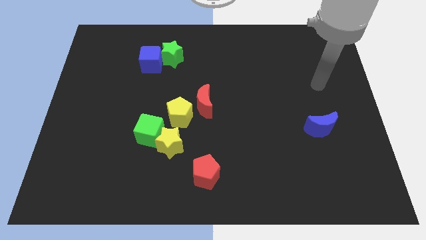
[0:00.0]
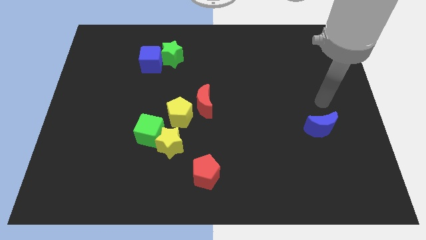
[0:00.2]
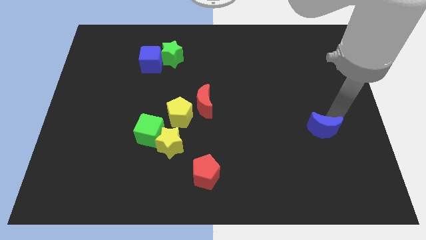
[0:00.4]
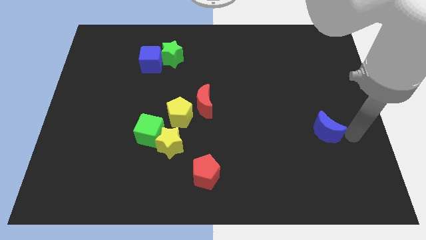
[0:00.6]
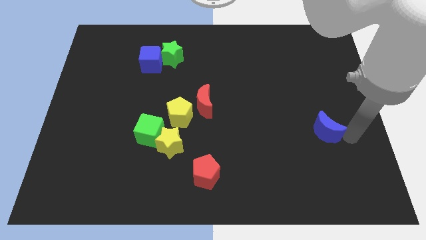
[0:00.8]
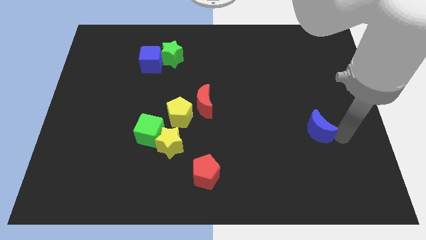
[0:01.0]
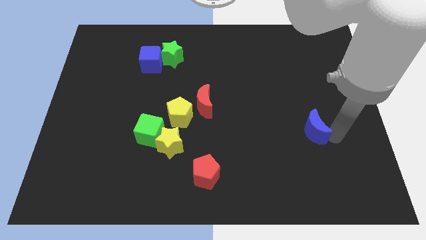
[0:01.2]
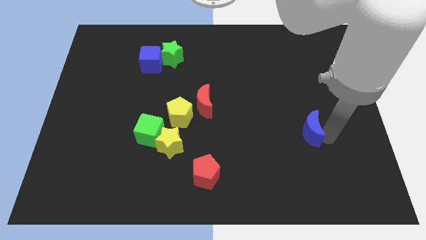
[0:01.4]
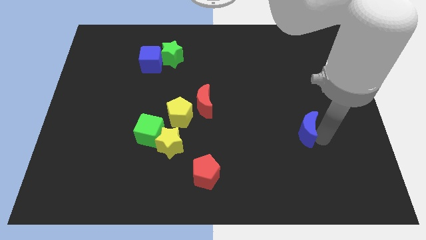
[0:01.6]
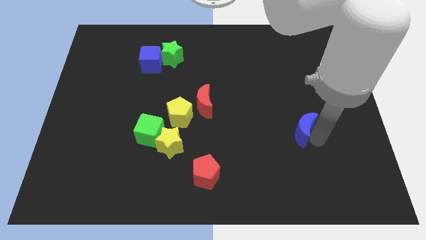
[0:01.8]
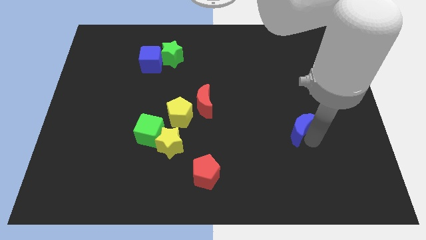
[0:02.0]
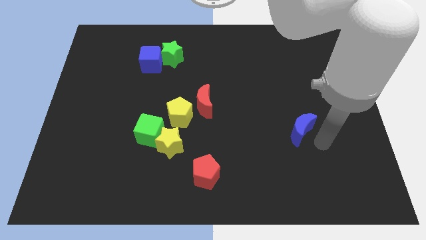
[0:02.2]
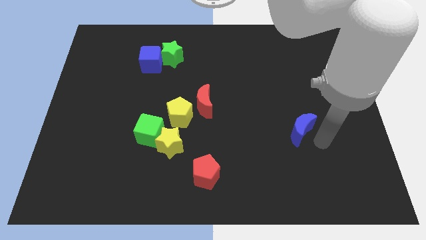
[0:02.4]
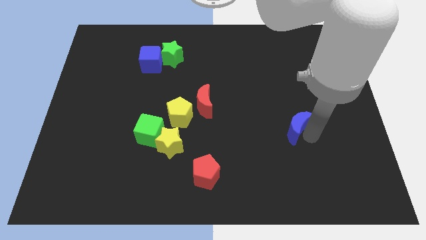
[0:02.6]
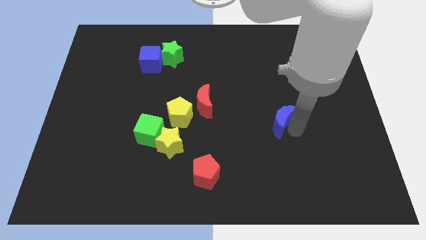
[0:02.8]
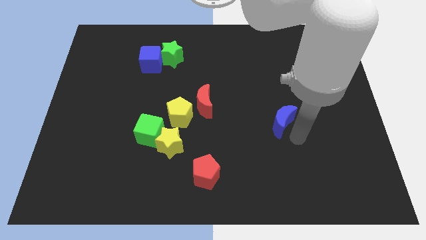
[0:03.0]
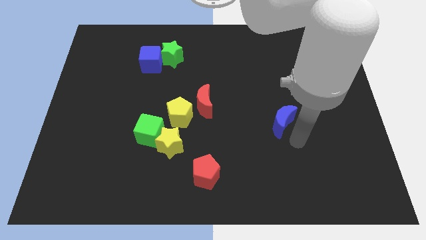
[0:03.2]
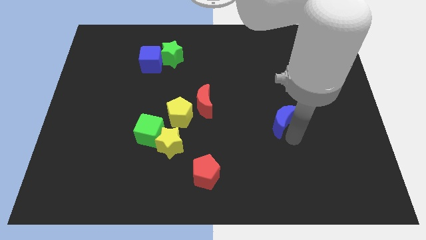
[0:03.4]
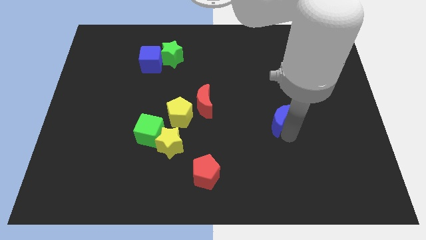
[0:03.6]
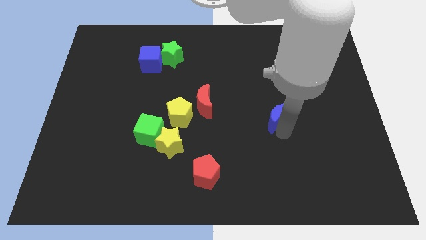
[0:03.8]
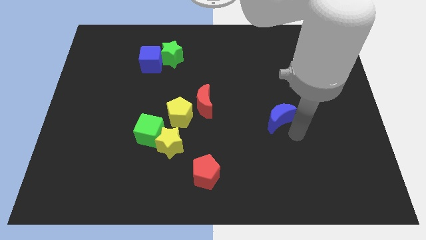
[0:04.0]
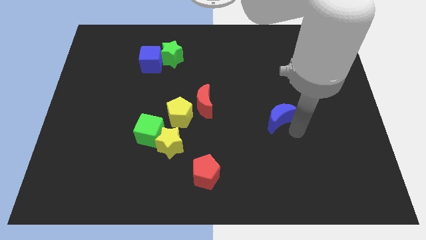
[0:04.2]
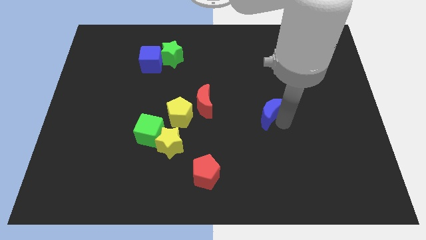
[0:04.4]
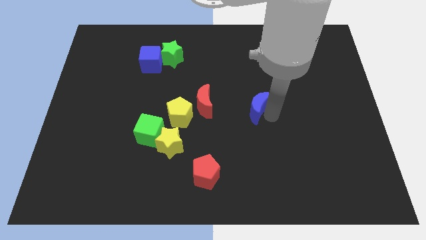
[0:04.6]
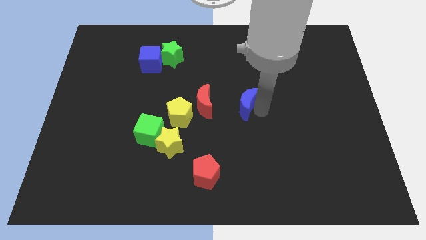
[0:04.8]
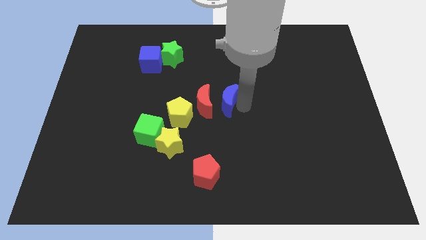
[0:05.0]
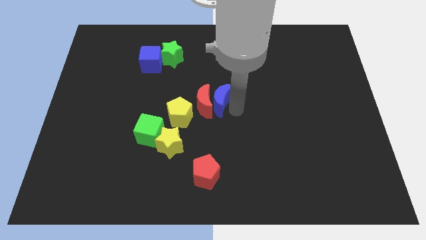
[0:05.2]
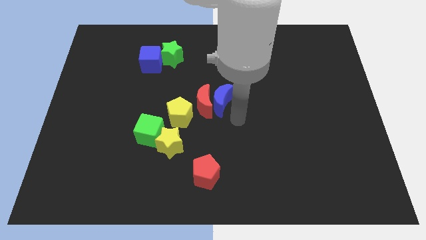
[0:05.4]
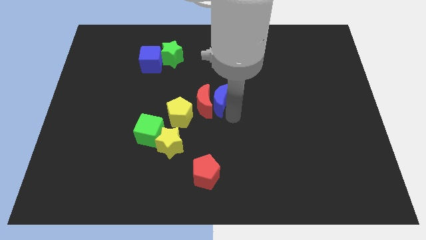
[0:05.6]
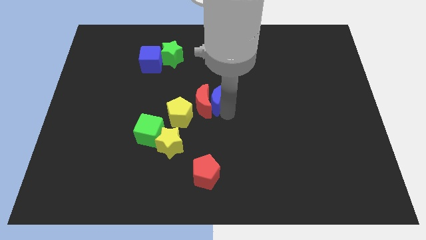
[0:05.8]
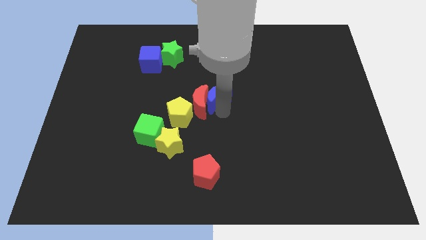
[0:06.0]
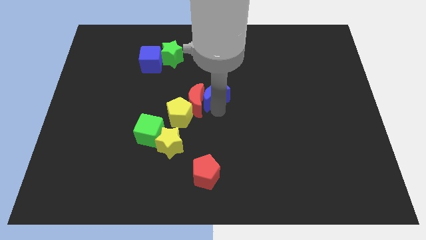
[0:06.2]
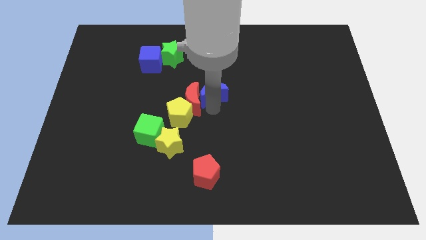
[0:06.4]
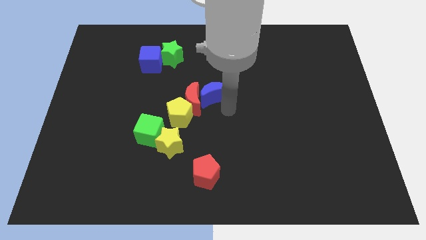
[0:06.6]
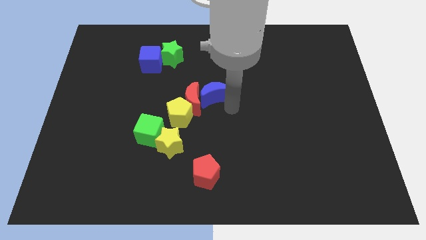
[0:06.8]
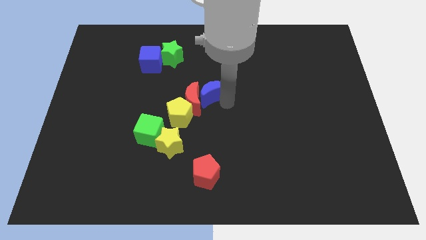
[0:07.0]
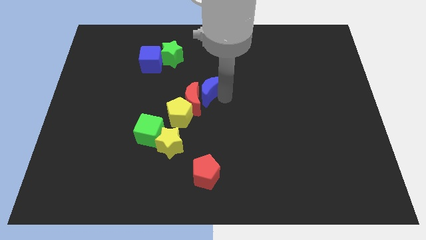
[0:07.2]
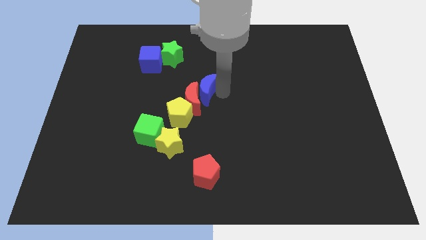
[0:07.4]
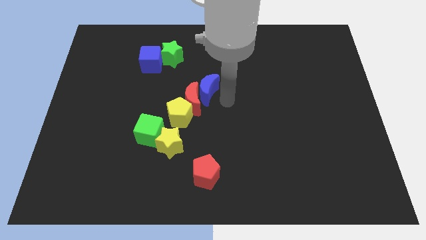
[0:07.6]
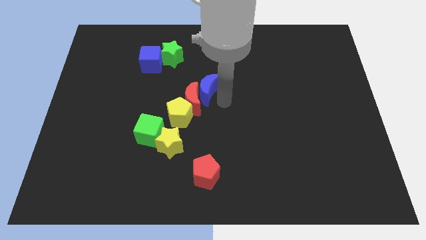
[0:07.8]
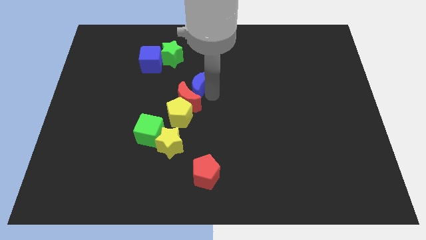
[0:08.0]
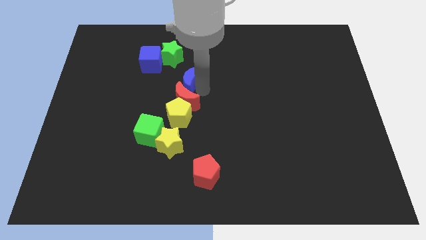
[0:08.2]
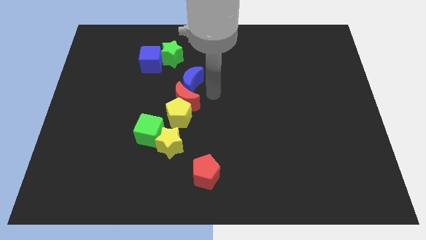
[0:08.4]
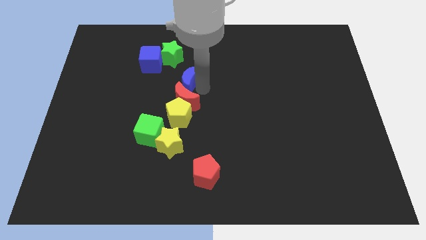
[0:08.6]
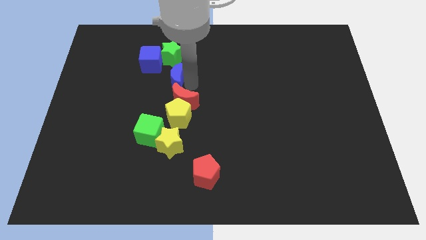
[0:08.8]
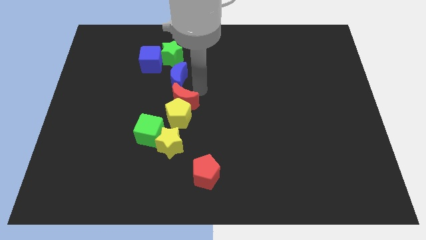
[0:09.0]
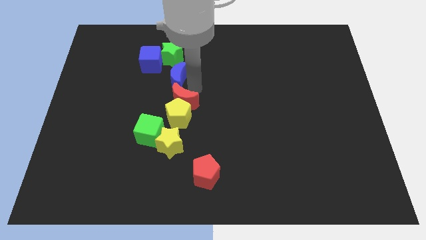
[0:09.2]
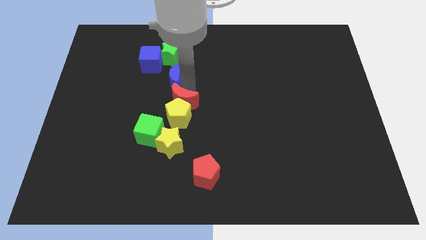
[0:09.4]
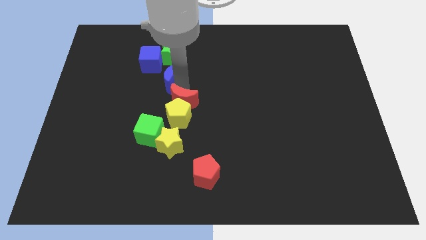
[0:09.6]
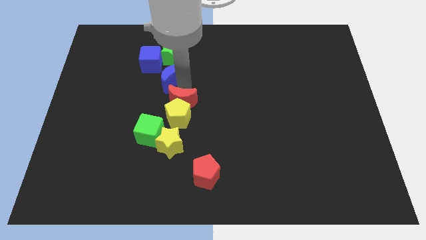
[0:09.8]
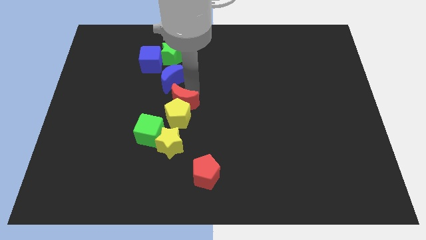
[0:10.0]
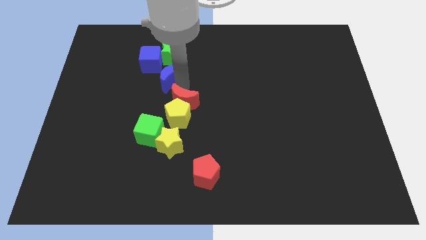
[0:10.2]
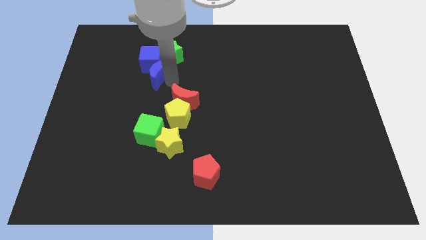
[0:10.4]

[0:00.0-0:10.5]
push the blue moon to the blue cube

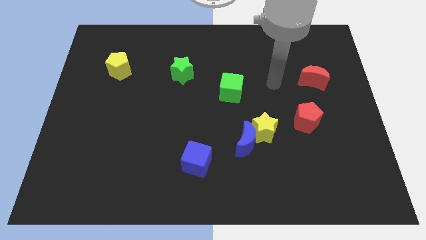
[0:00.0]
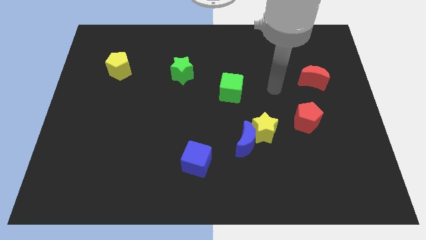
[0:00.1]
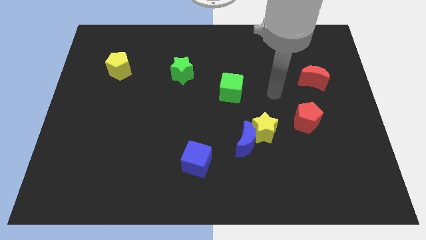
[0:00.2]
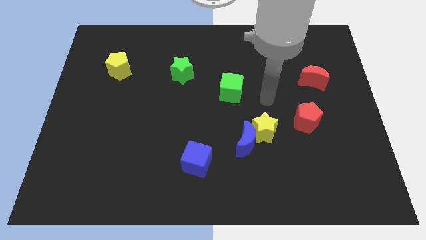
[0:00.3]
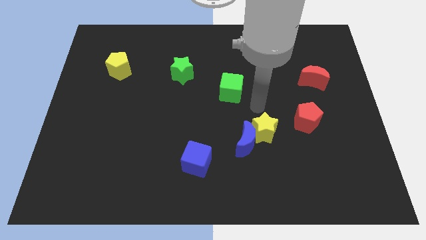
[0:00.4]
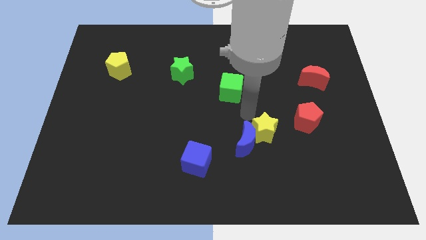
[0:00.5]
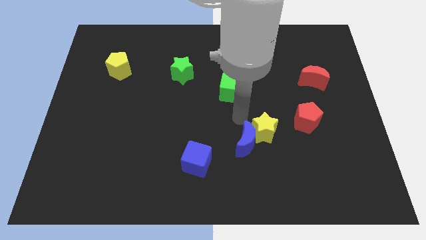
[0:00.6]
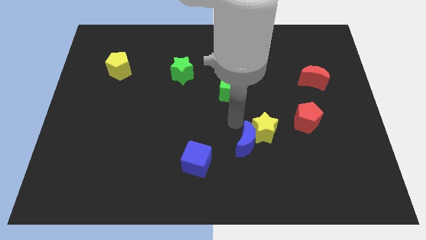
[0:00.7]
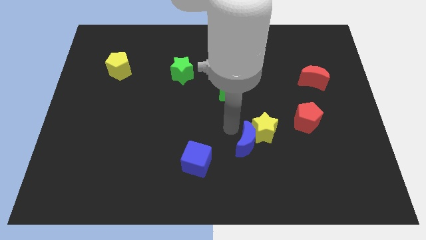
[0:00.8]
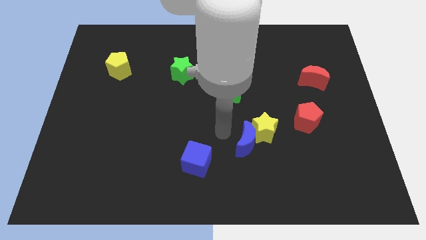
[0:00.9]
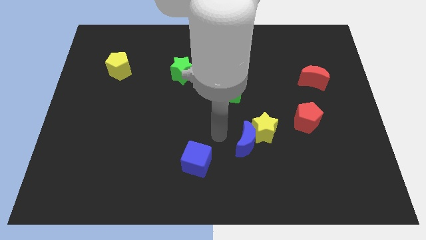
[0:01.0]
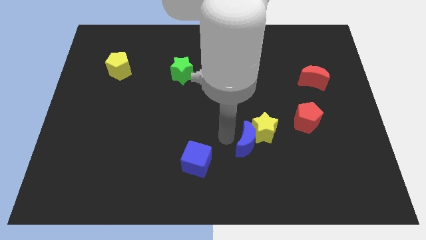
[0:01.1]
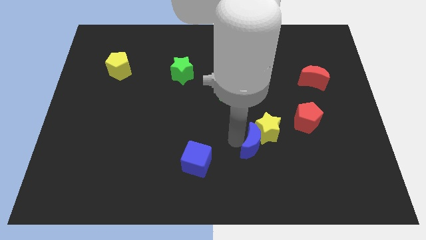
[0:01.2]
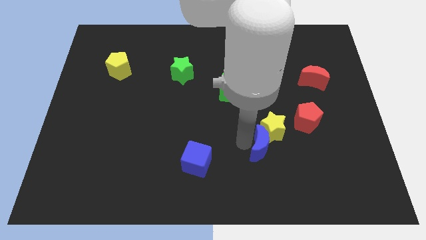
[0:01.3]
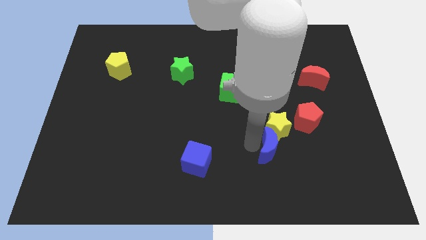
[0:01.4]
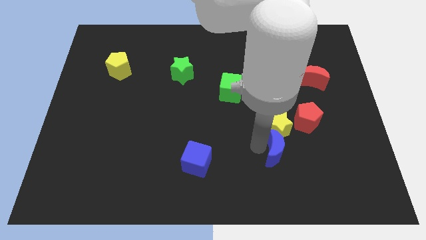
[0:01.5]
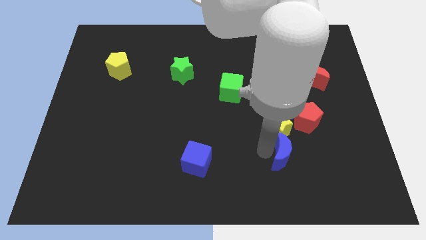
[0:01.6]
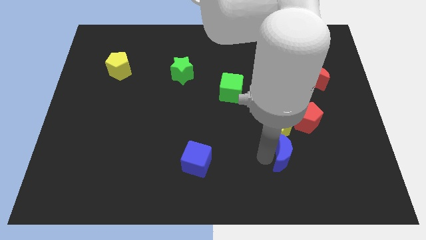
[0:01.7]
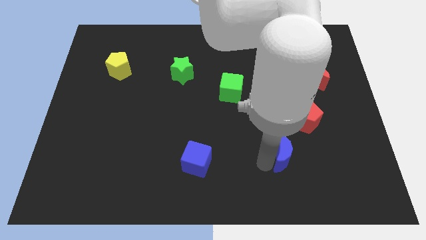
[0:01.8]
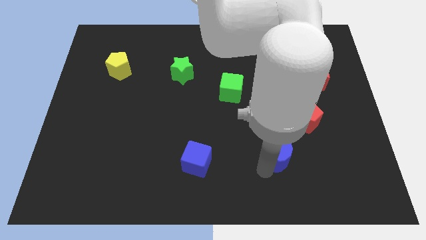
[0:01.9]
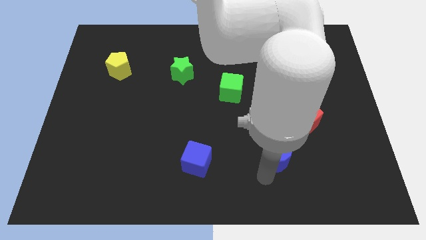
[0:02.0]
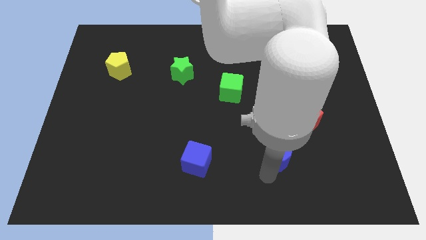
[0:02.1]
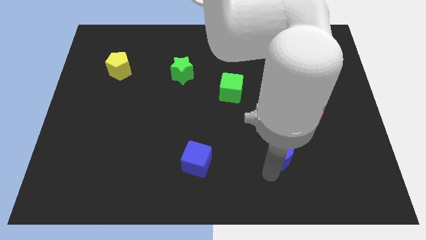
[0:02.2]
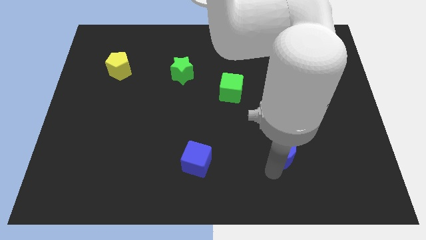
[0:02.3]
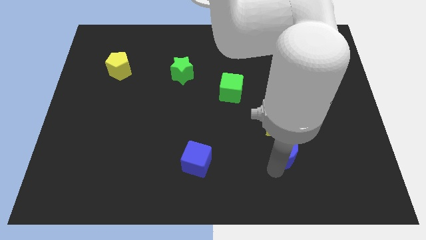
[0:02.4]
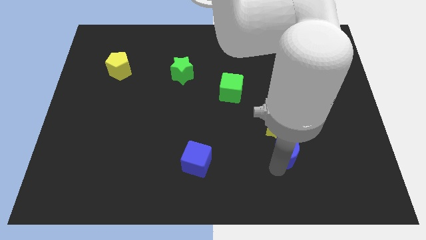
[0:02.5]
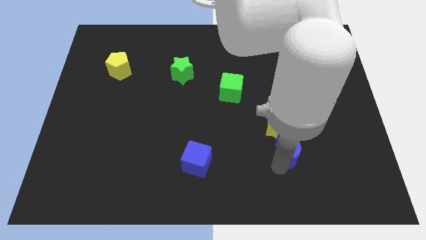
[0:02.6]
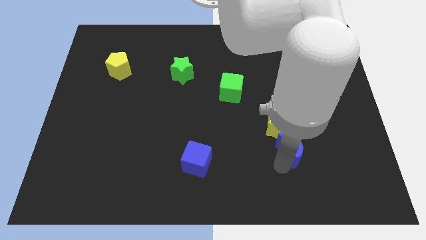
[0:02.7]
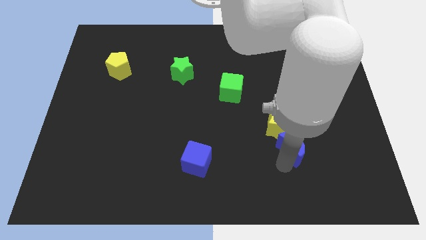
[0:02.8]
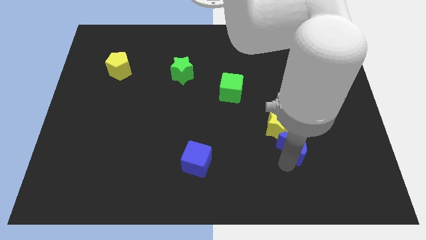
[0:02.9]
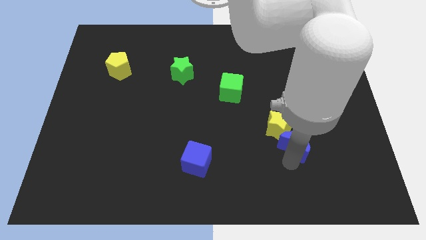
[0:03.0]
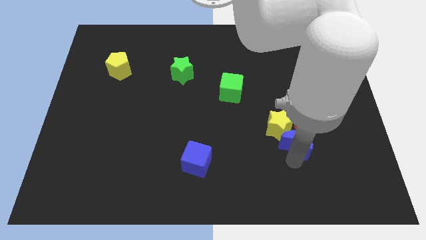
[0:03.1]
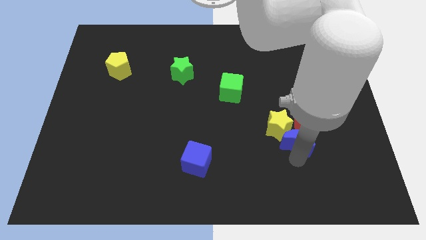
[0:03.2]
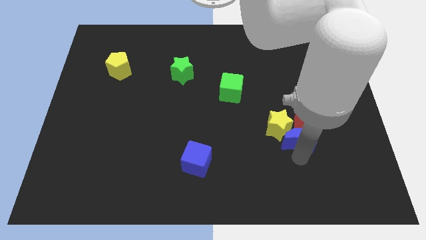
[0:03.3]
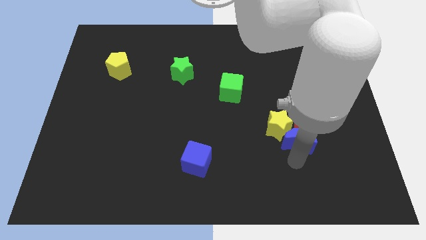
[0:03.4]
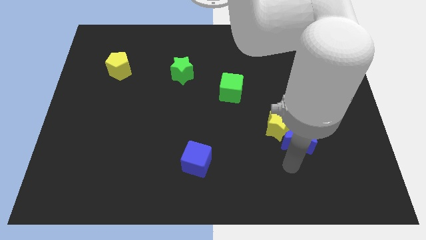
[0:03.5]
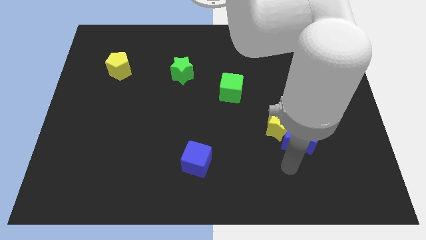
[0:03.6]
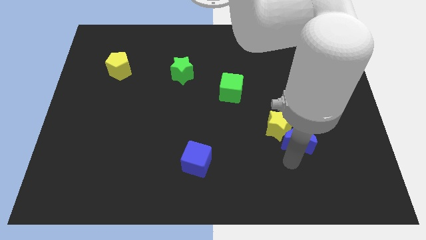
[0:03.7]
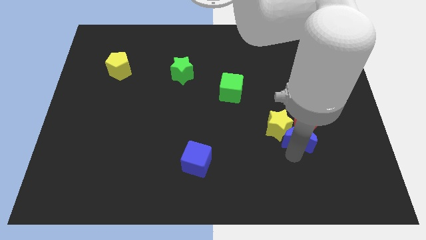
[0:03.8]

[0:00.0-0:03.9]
slide the blue moon next to the red pentagon
